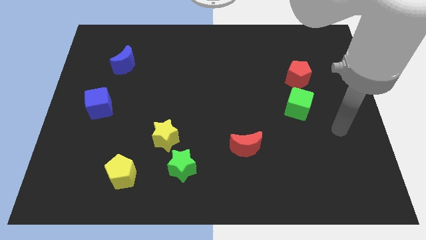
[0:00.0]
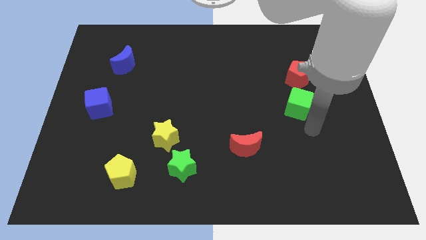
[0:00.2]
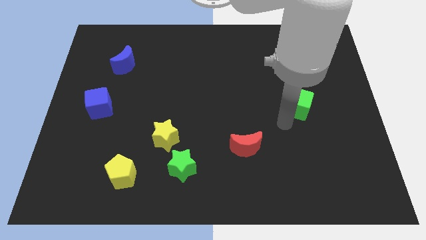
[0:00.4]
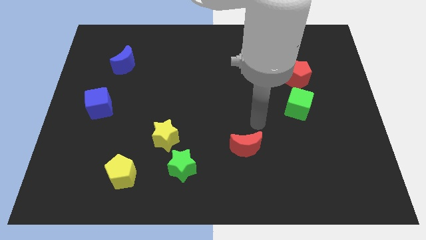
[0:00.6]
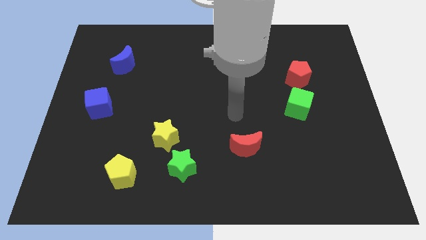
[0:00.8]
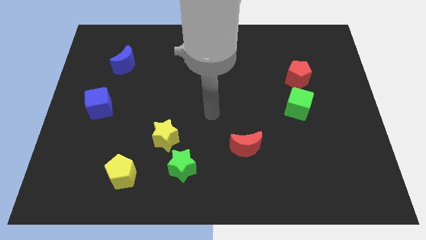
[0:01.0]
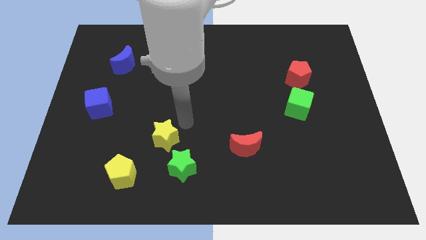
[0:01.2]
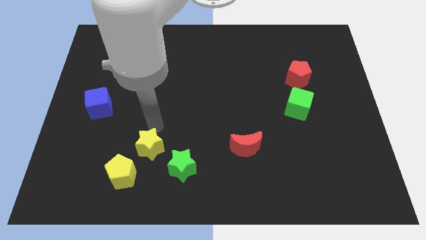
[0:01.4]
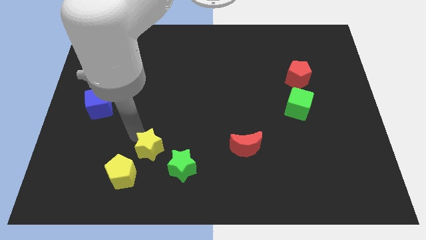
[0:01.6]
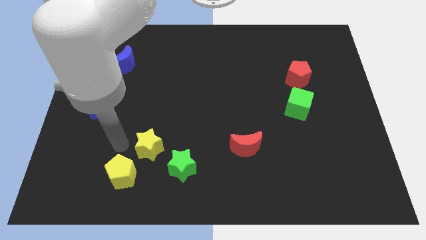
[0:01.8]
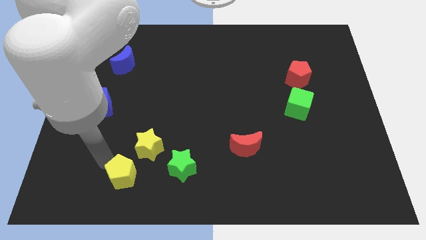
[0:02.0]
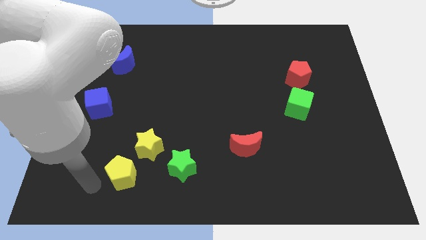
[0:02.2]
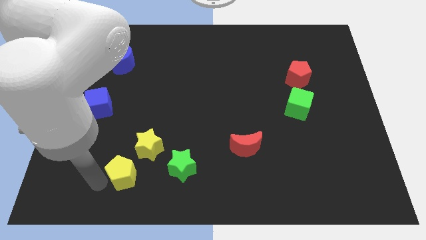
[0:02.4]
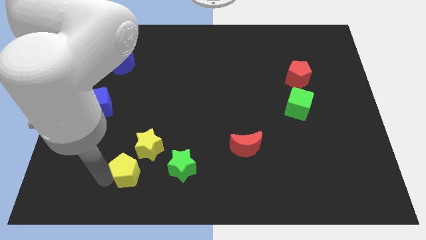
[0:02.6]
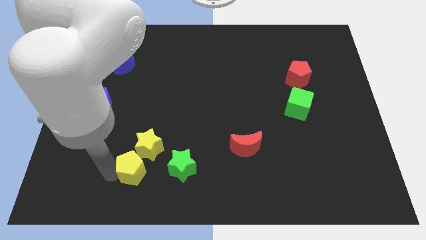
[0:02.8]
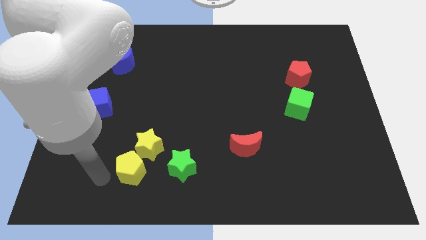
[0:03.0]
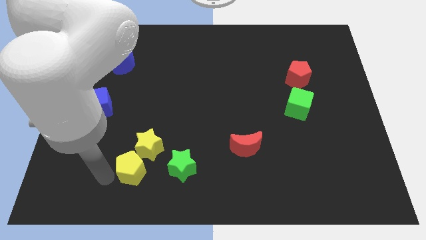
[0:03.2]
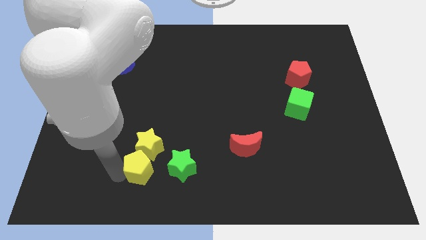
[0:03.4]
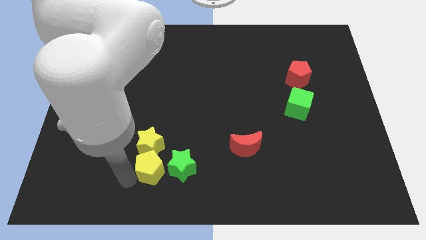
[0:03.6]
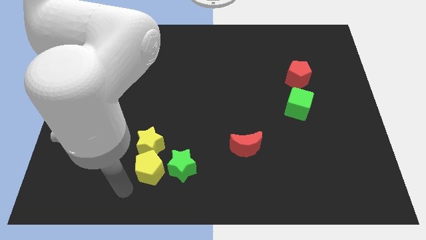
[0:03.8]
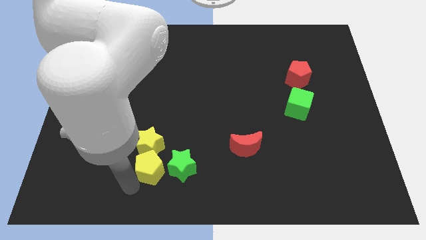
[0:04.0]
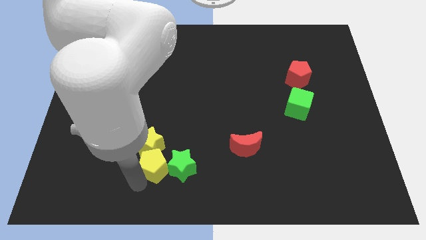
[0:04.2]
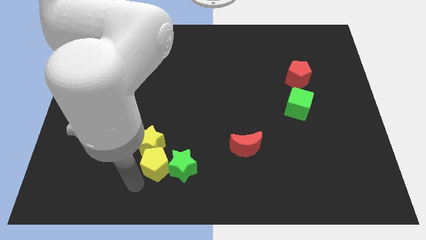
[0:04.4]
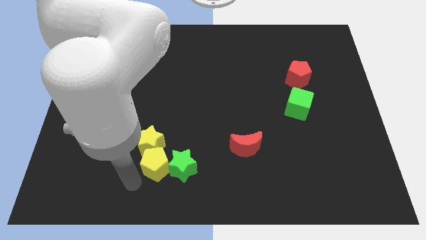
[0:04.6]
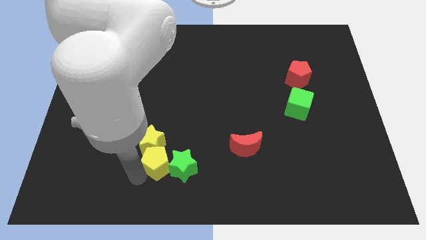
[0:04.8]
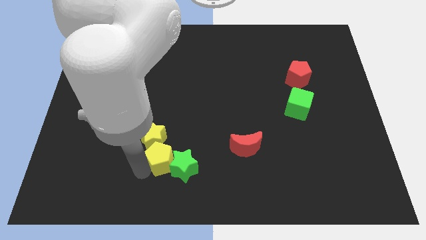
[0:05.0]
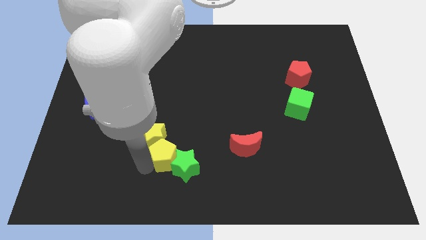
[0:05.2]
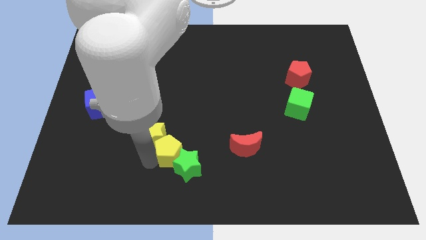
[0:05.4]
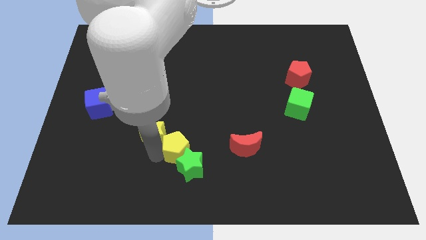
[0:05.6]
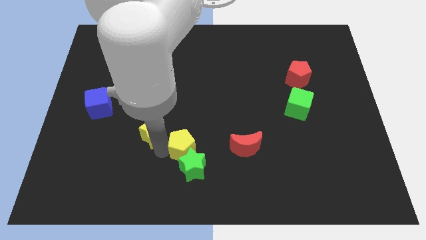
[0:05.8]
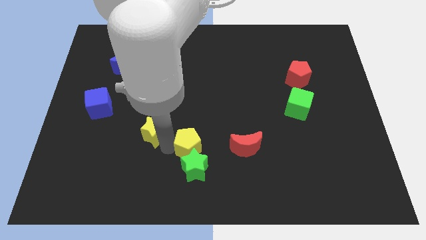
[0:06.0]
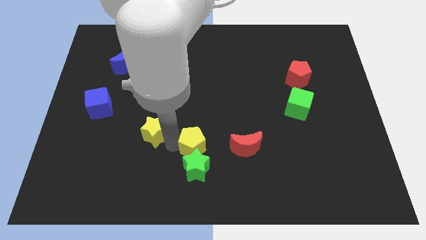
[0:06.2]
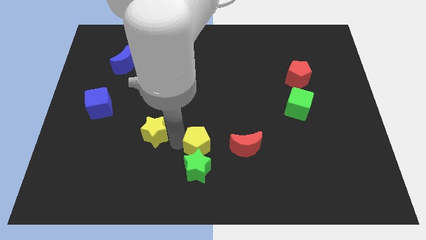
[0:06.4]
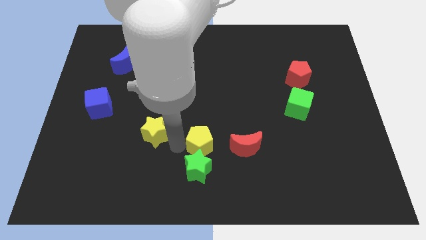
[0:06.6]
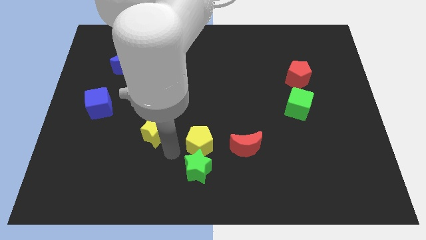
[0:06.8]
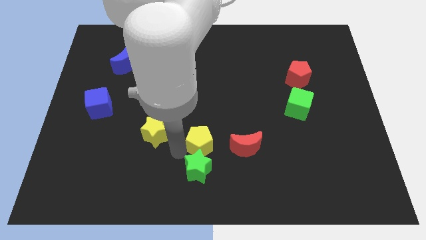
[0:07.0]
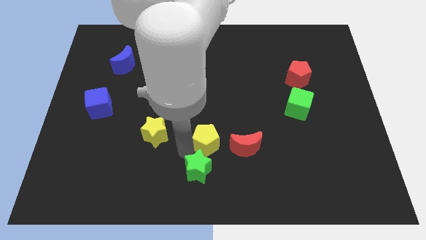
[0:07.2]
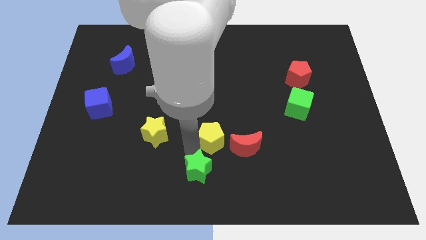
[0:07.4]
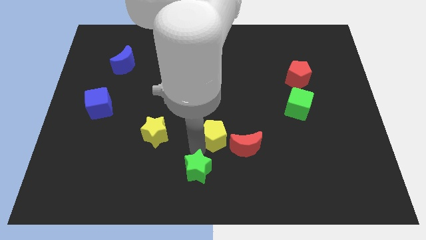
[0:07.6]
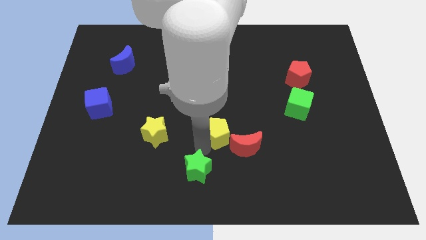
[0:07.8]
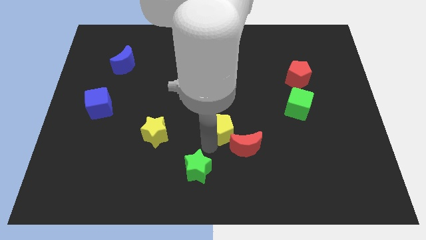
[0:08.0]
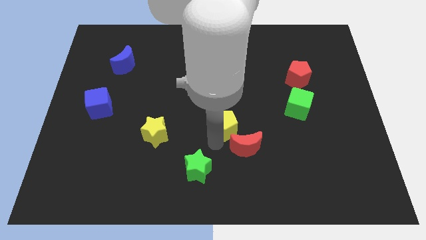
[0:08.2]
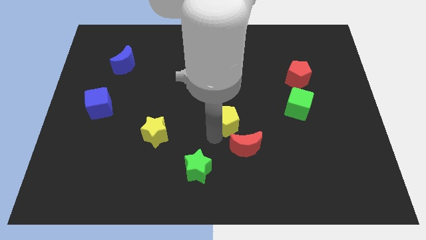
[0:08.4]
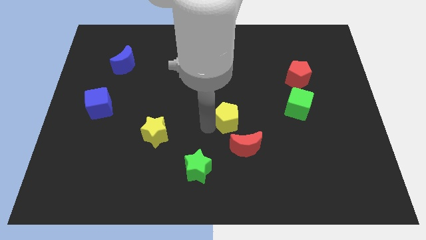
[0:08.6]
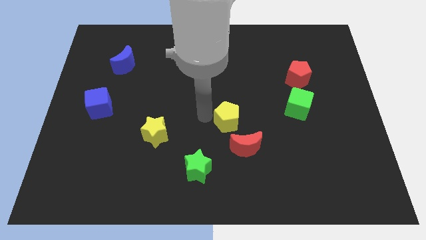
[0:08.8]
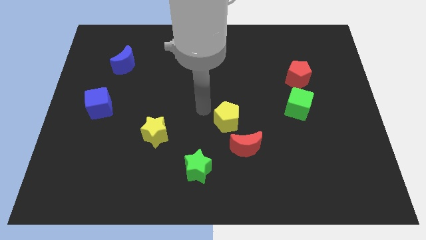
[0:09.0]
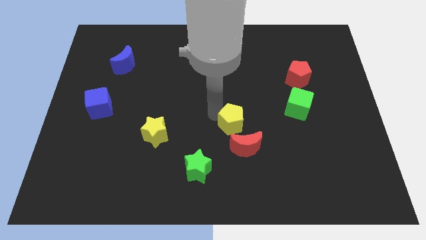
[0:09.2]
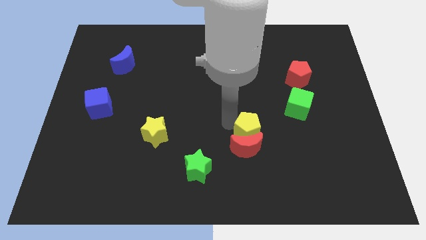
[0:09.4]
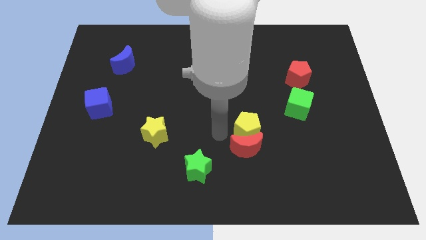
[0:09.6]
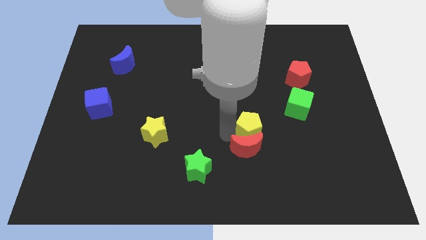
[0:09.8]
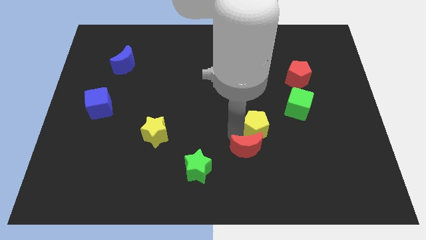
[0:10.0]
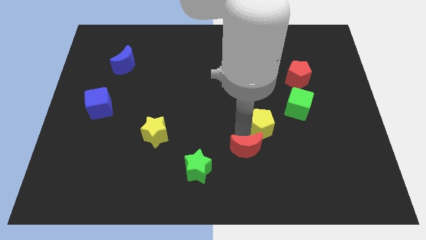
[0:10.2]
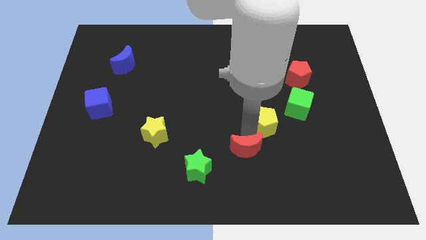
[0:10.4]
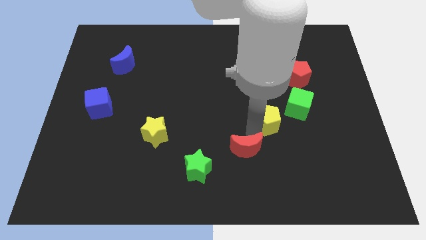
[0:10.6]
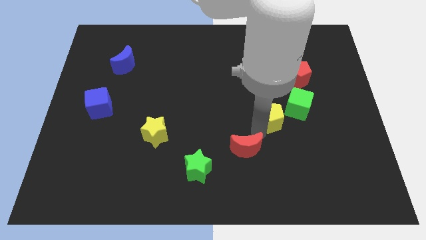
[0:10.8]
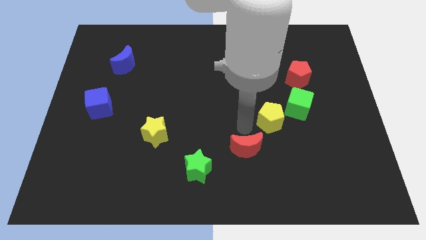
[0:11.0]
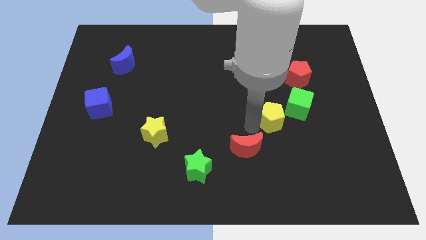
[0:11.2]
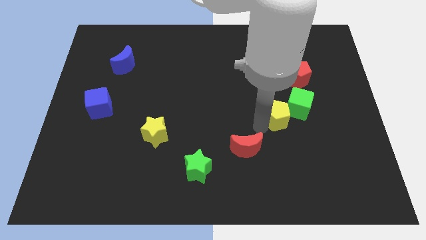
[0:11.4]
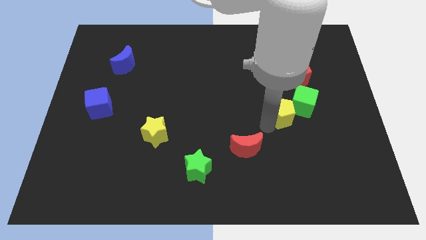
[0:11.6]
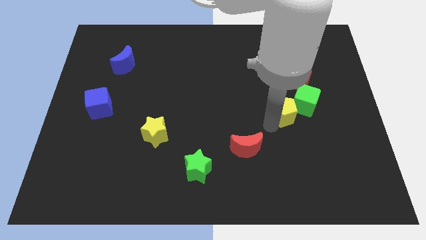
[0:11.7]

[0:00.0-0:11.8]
slide the yellow pentagon below the red pentagon
